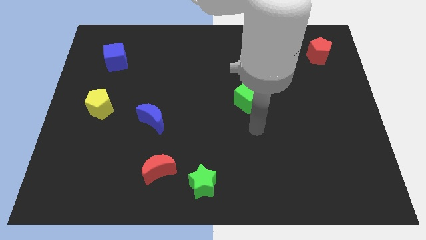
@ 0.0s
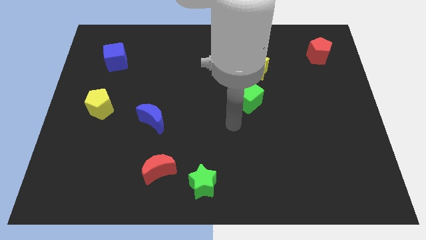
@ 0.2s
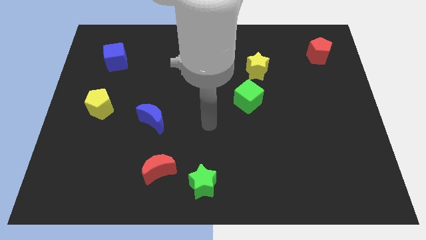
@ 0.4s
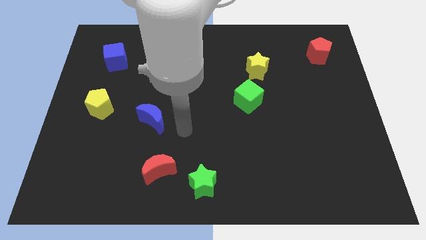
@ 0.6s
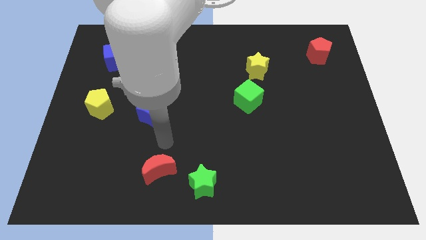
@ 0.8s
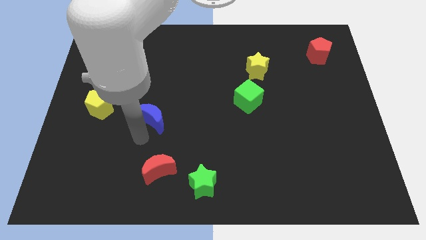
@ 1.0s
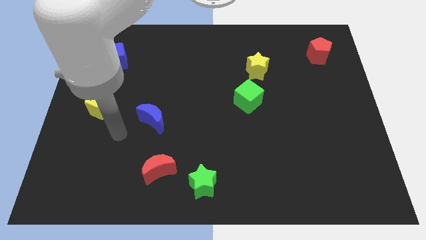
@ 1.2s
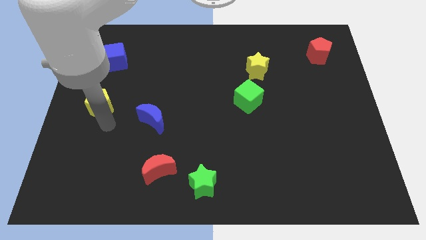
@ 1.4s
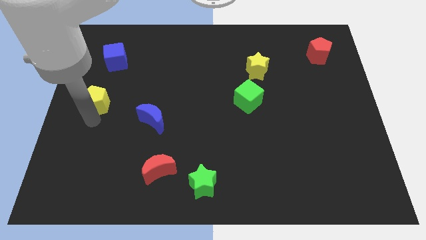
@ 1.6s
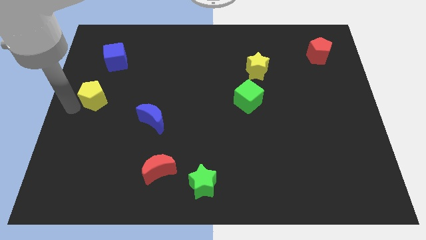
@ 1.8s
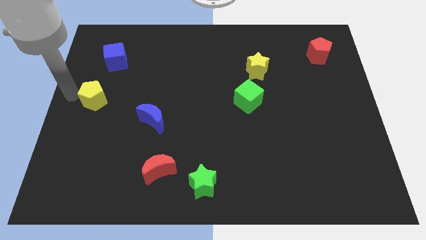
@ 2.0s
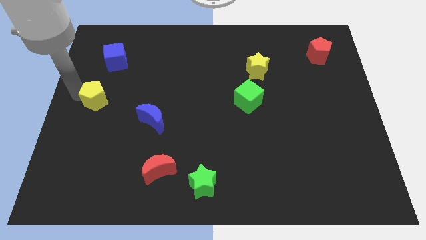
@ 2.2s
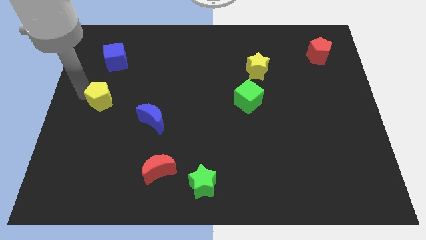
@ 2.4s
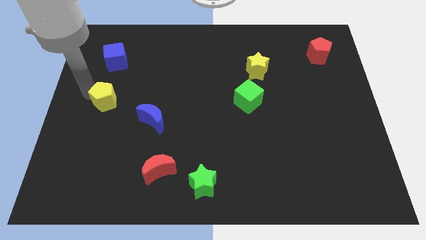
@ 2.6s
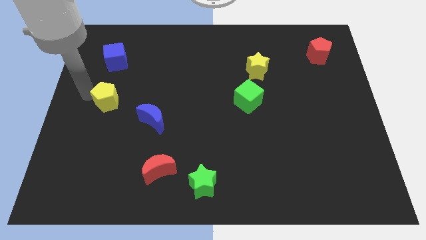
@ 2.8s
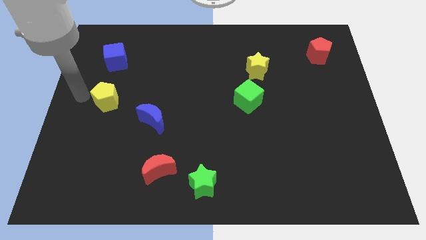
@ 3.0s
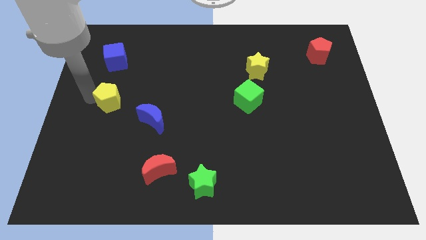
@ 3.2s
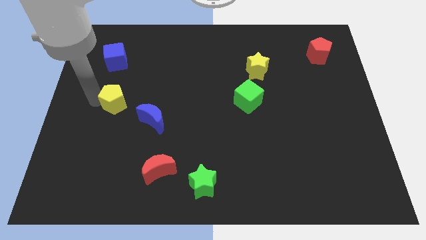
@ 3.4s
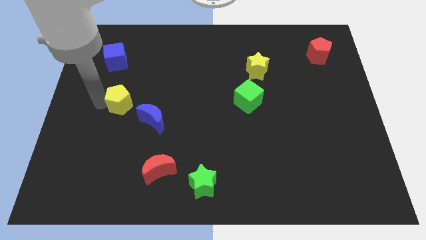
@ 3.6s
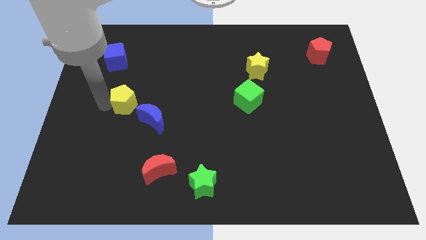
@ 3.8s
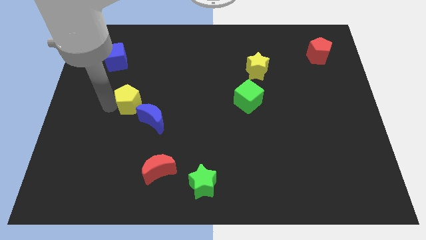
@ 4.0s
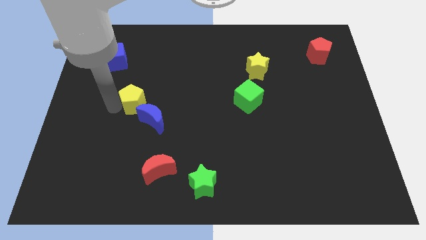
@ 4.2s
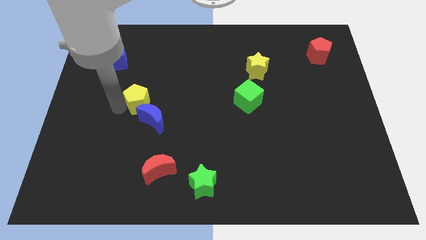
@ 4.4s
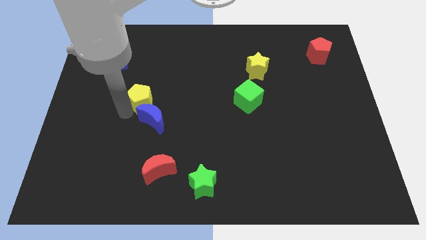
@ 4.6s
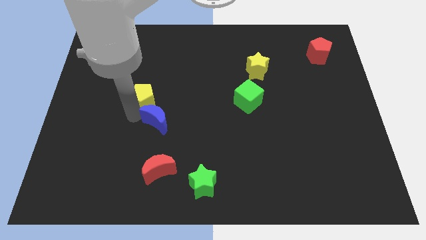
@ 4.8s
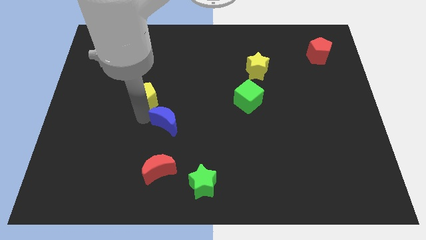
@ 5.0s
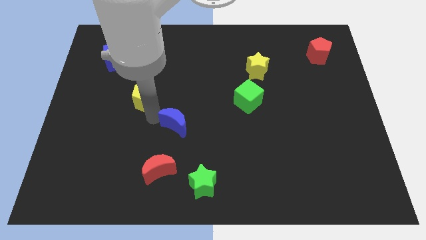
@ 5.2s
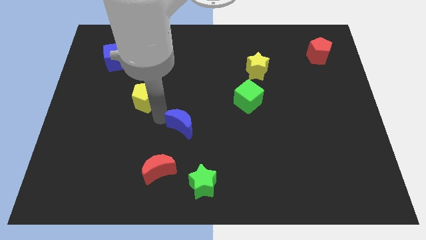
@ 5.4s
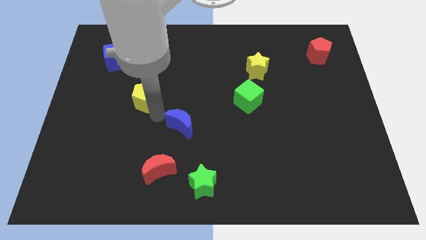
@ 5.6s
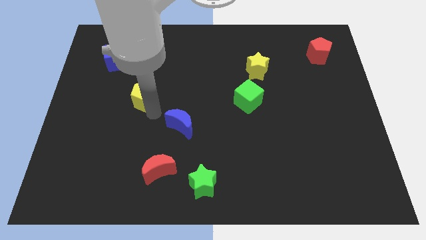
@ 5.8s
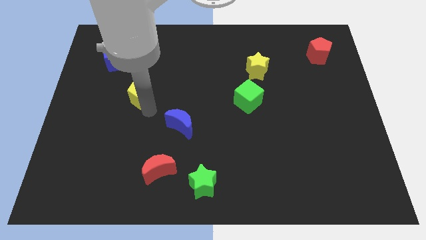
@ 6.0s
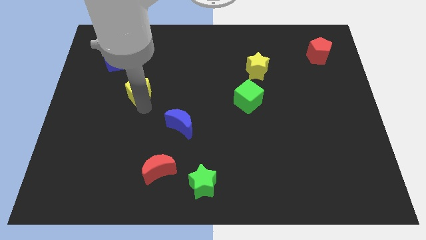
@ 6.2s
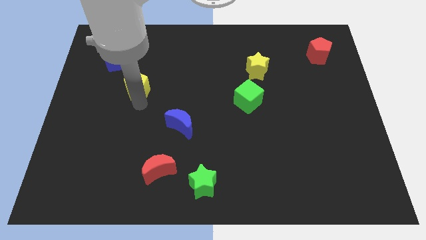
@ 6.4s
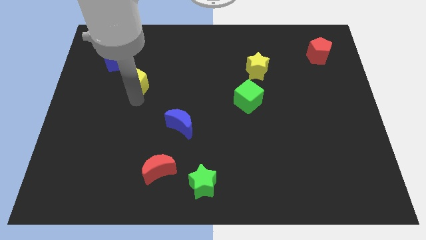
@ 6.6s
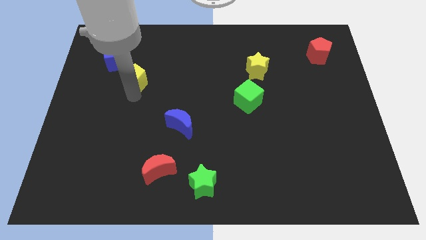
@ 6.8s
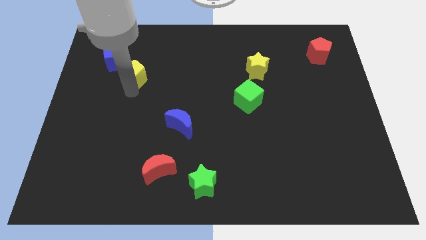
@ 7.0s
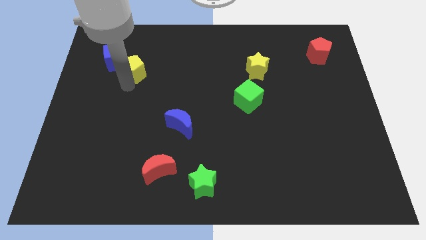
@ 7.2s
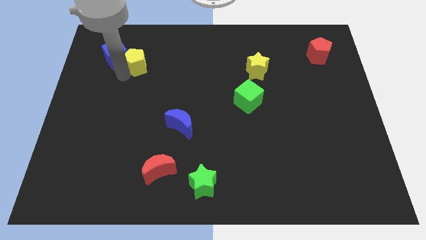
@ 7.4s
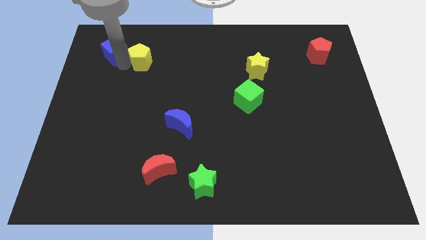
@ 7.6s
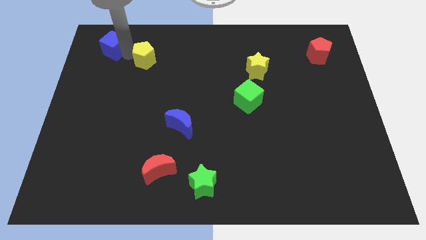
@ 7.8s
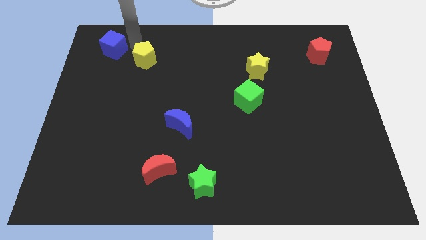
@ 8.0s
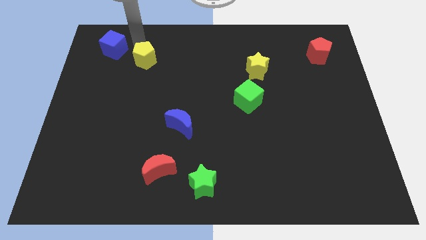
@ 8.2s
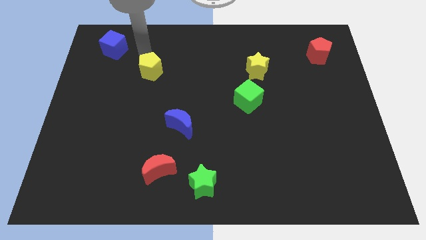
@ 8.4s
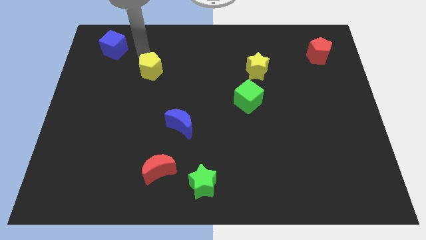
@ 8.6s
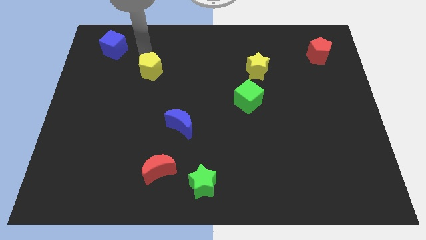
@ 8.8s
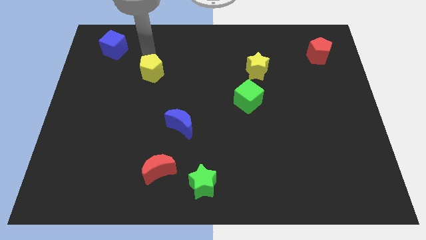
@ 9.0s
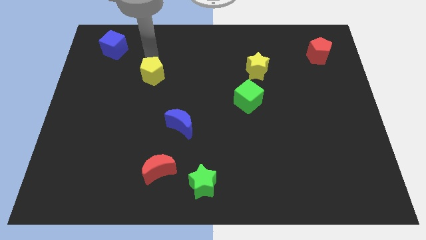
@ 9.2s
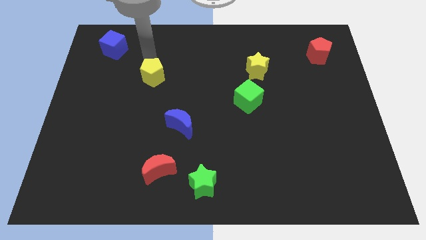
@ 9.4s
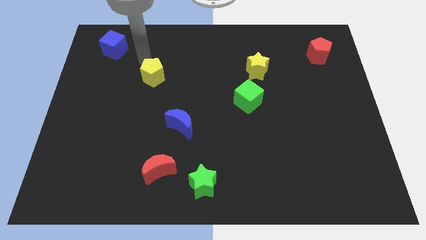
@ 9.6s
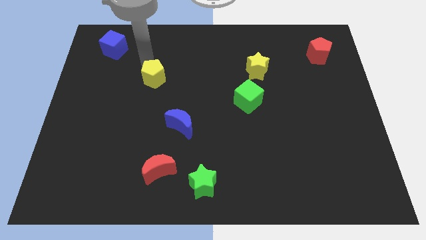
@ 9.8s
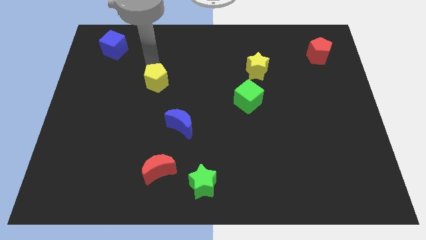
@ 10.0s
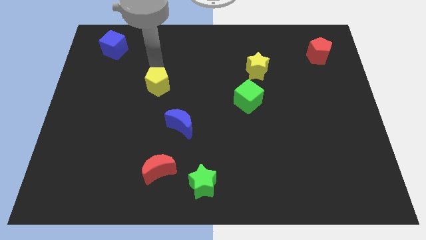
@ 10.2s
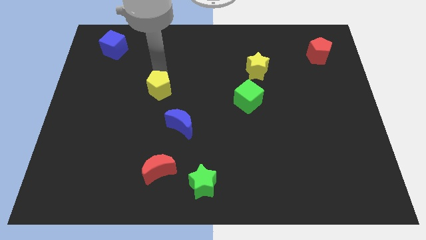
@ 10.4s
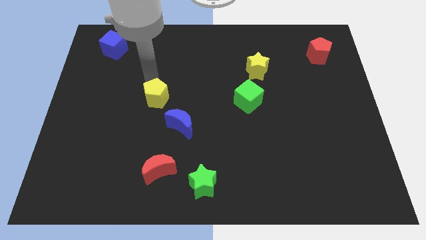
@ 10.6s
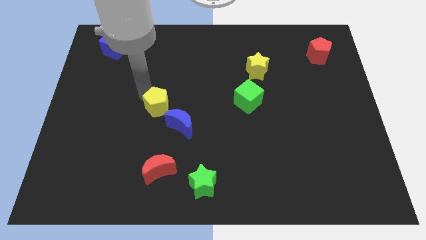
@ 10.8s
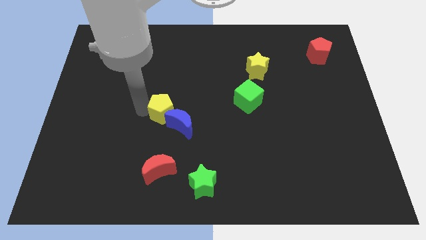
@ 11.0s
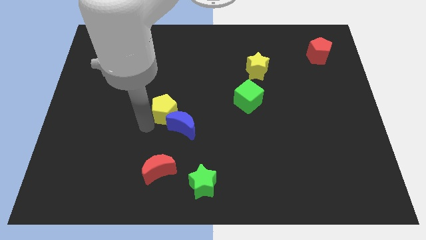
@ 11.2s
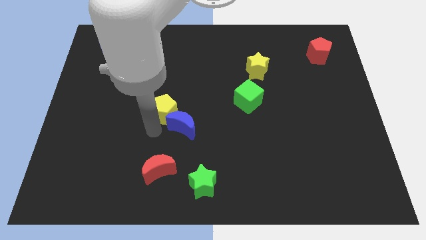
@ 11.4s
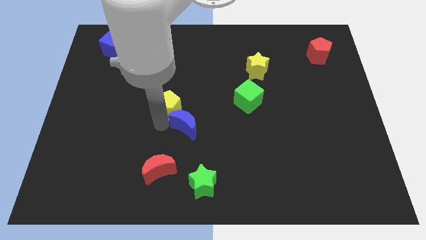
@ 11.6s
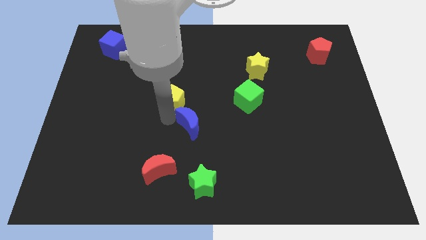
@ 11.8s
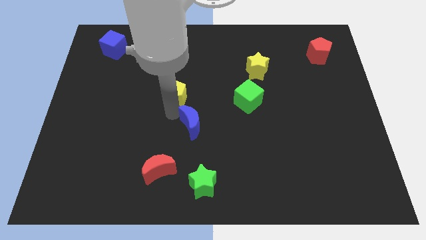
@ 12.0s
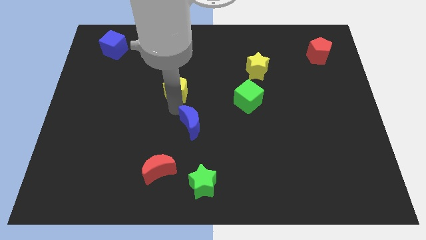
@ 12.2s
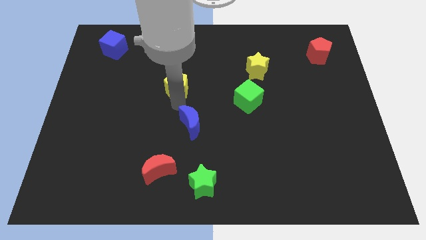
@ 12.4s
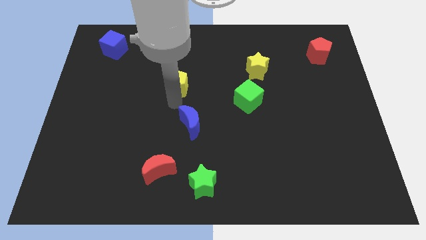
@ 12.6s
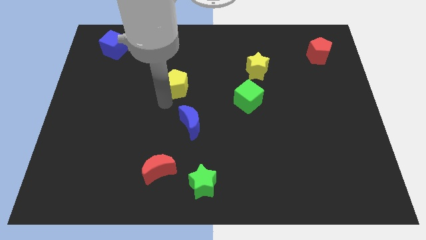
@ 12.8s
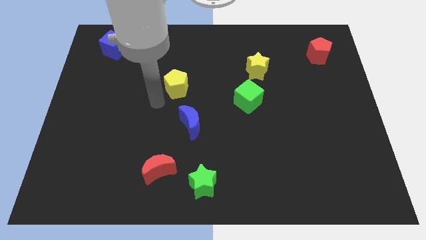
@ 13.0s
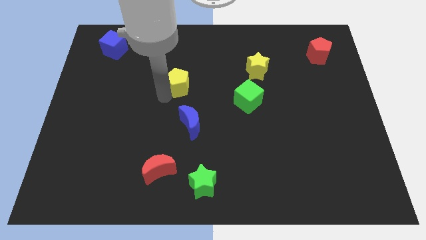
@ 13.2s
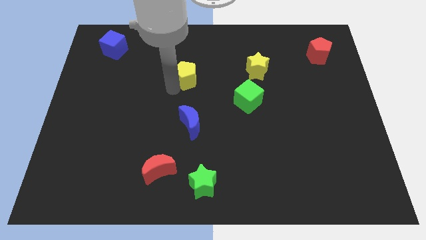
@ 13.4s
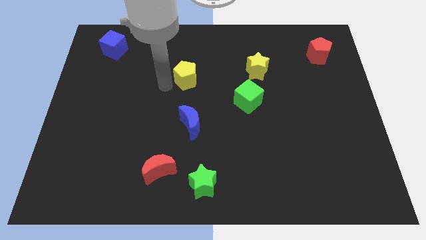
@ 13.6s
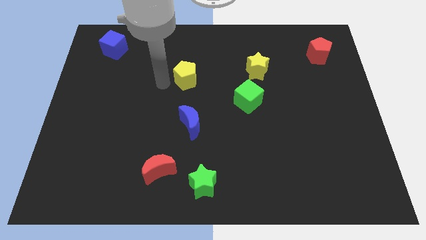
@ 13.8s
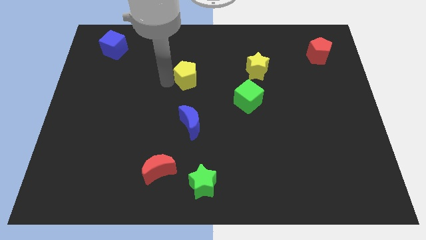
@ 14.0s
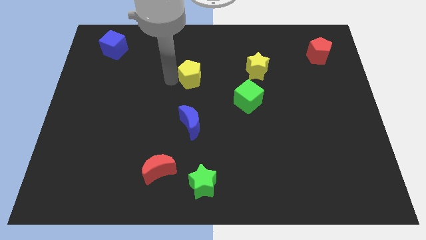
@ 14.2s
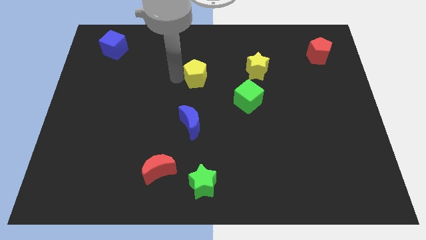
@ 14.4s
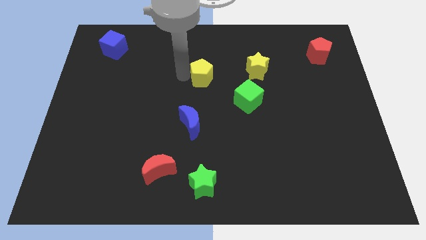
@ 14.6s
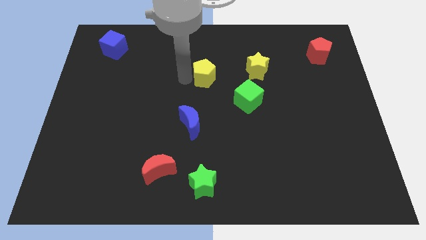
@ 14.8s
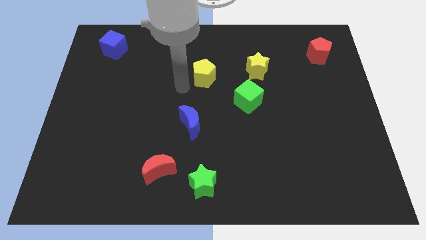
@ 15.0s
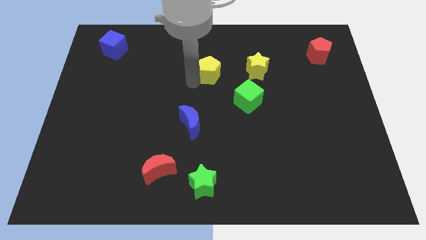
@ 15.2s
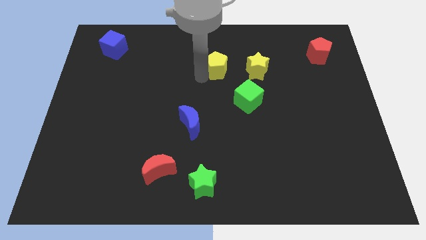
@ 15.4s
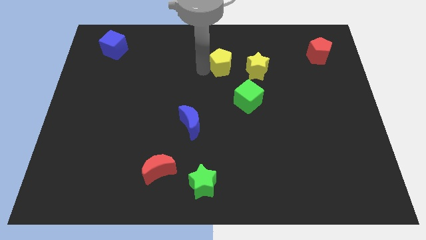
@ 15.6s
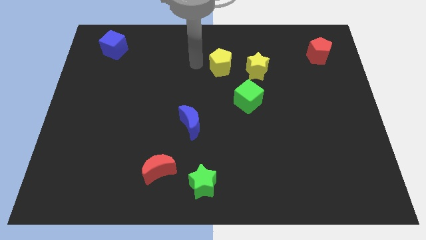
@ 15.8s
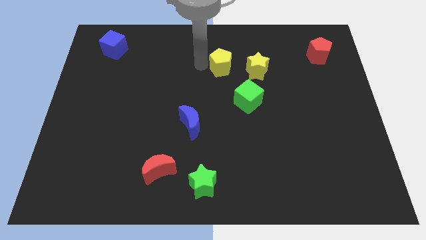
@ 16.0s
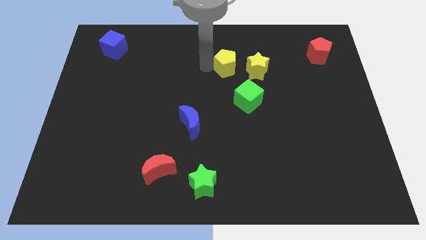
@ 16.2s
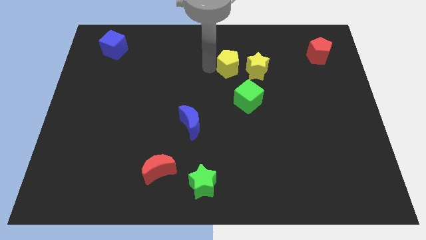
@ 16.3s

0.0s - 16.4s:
push the yellow pentagon above the green cube

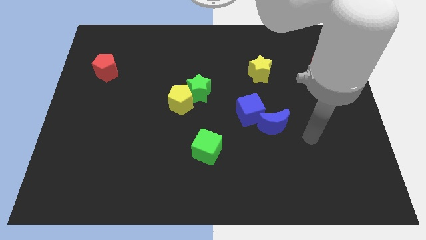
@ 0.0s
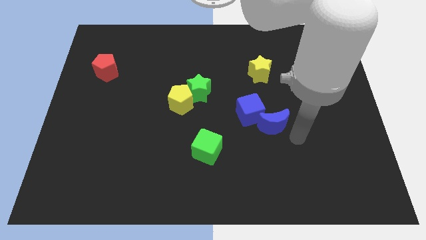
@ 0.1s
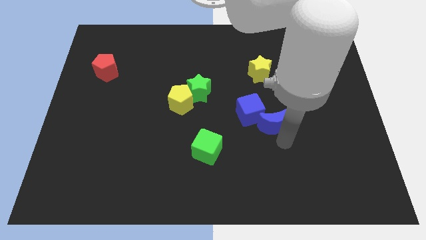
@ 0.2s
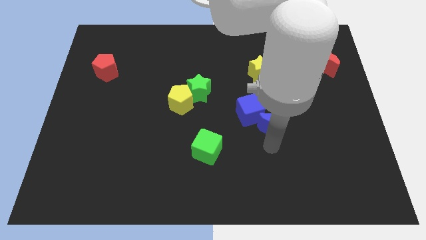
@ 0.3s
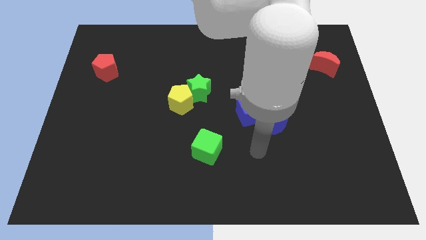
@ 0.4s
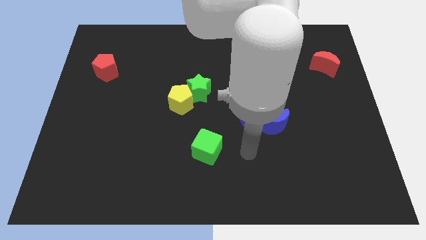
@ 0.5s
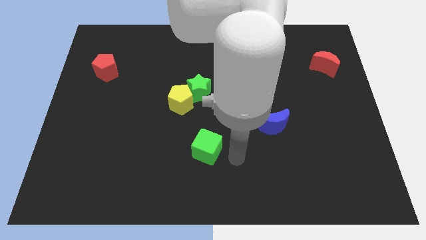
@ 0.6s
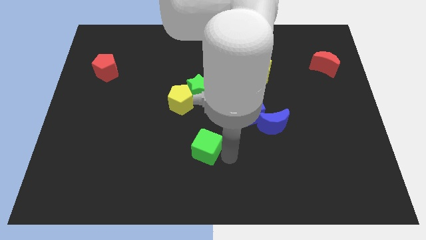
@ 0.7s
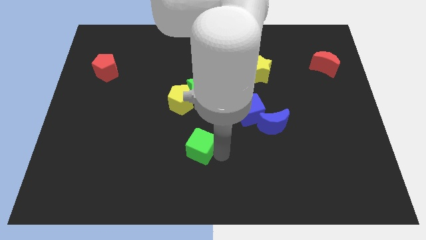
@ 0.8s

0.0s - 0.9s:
push the green cube to the bottom side of the yellow pentagon
